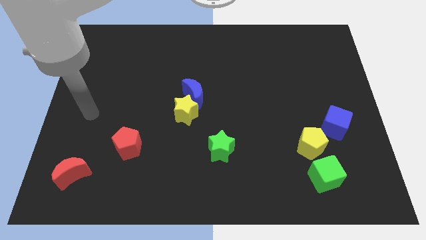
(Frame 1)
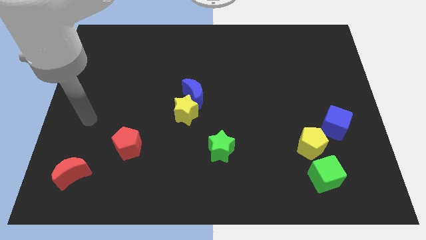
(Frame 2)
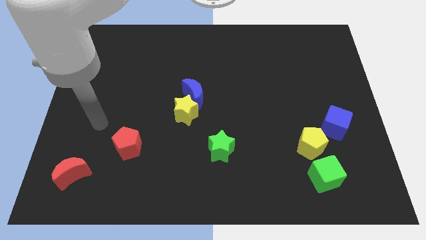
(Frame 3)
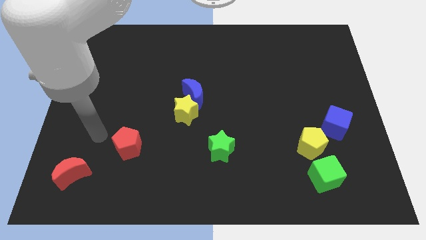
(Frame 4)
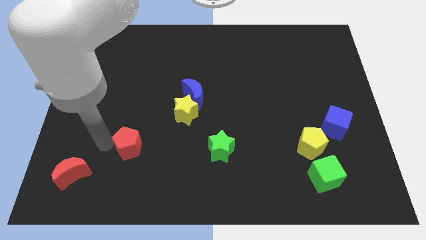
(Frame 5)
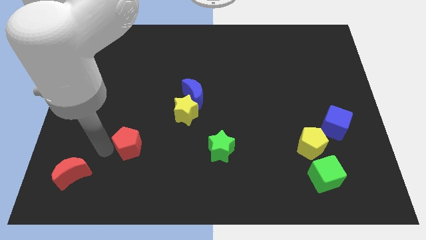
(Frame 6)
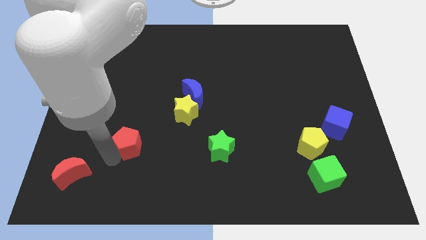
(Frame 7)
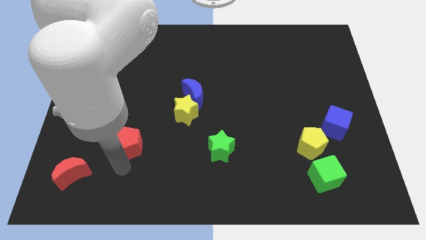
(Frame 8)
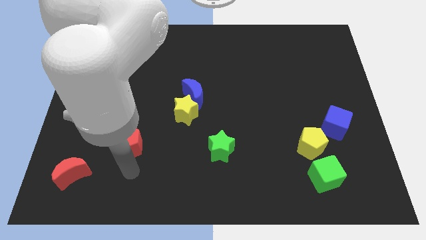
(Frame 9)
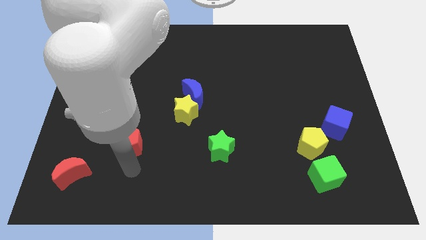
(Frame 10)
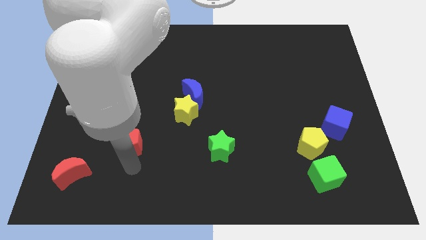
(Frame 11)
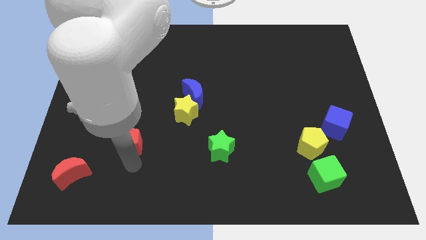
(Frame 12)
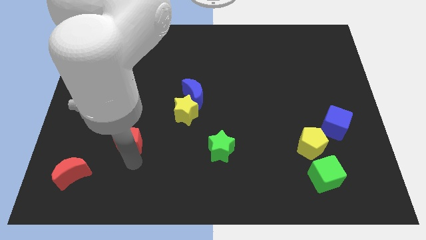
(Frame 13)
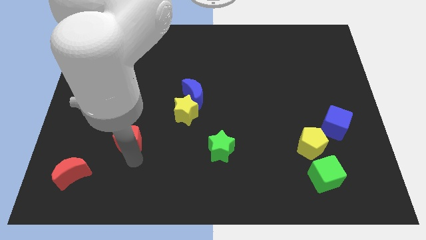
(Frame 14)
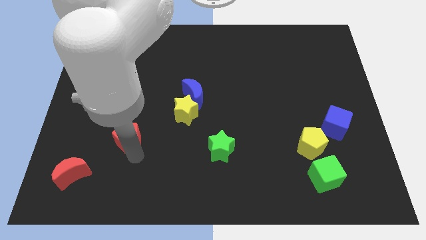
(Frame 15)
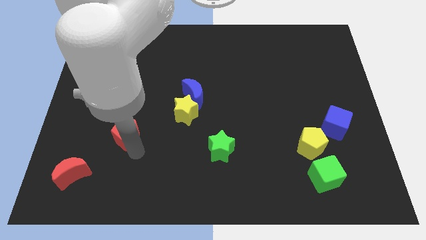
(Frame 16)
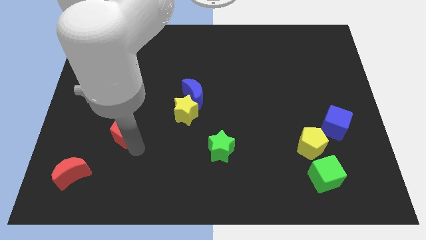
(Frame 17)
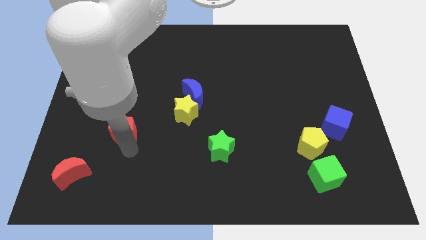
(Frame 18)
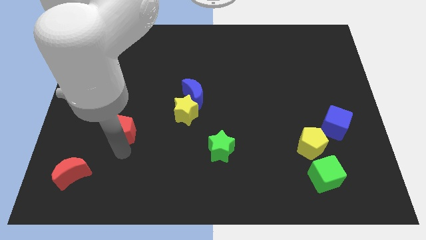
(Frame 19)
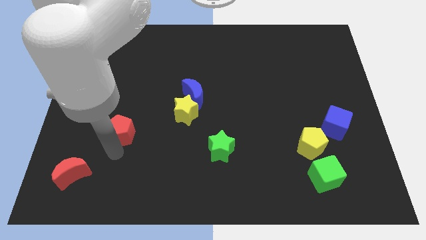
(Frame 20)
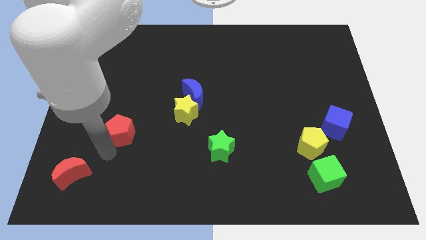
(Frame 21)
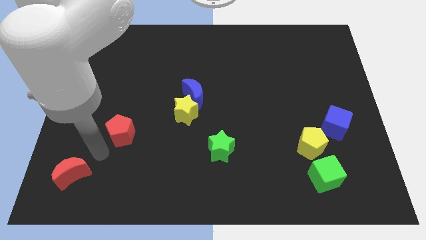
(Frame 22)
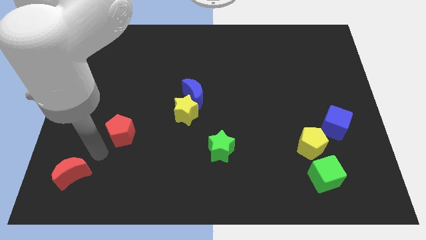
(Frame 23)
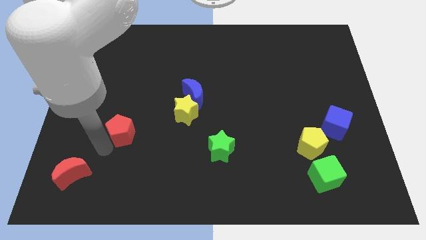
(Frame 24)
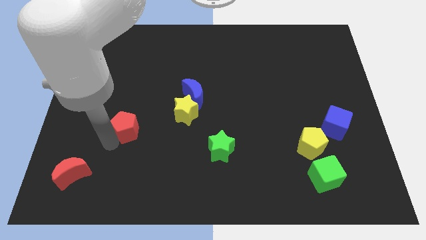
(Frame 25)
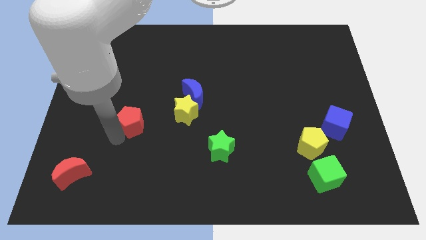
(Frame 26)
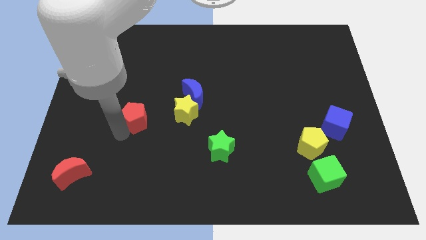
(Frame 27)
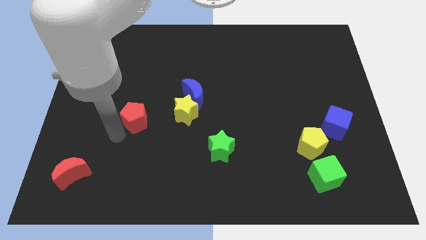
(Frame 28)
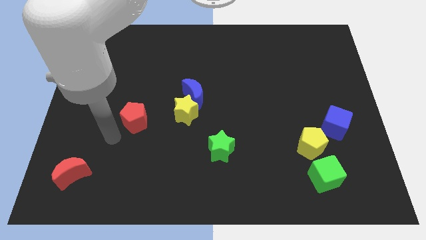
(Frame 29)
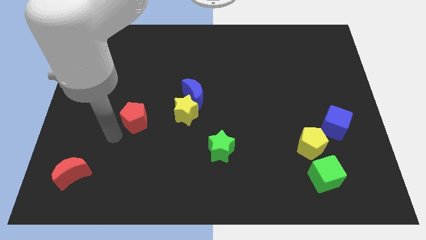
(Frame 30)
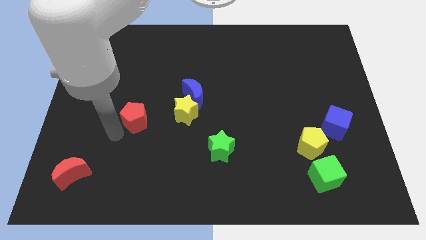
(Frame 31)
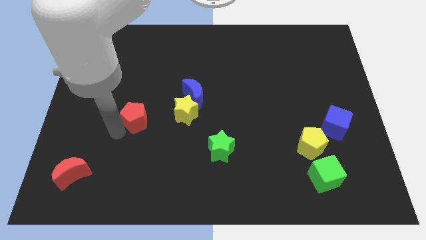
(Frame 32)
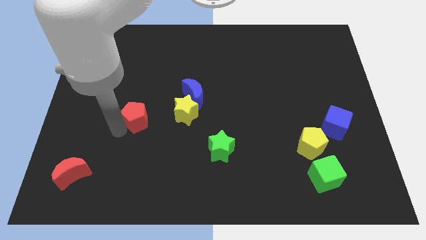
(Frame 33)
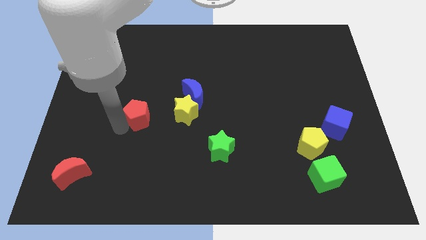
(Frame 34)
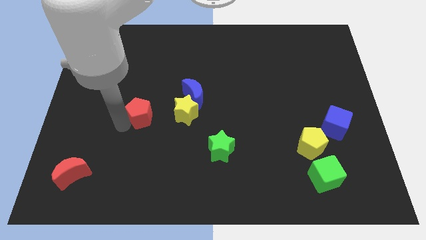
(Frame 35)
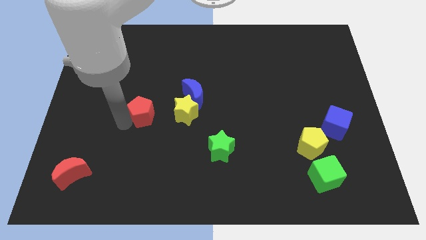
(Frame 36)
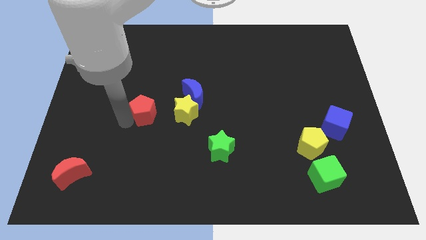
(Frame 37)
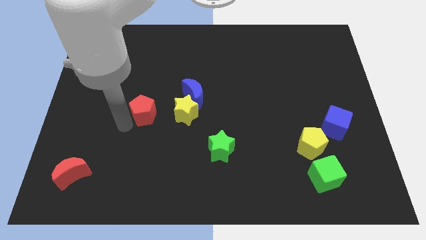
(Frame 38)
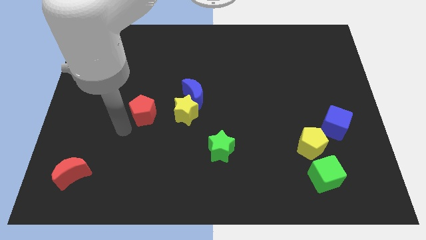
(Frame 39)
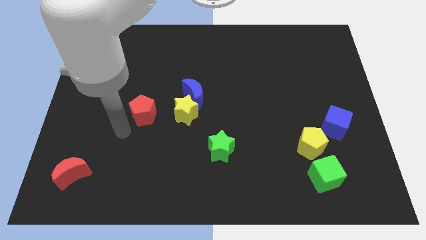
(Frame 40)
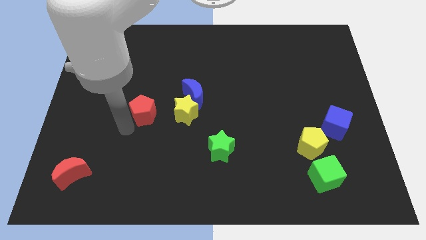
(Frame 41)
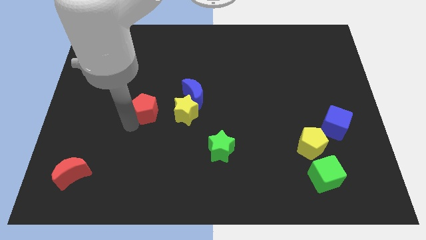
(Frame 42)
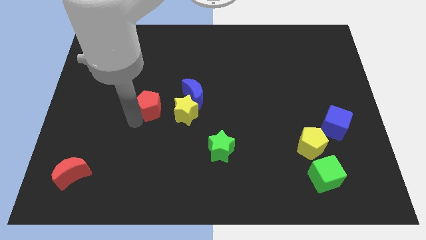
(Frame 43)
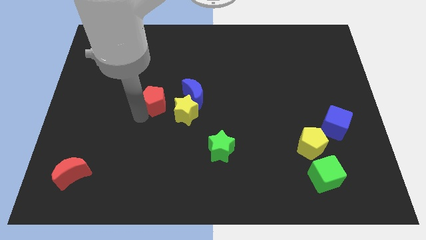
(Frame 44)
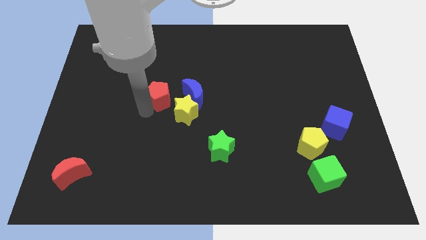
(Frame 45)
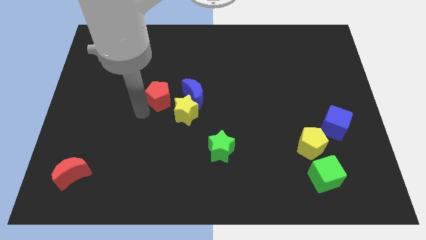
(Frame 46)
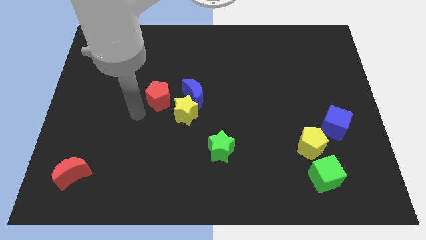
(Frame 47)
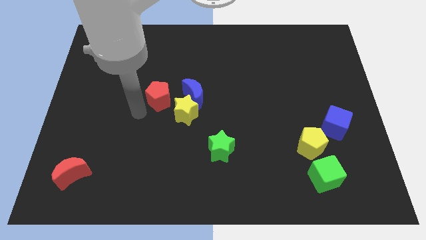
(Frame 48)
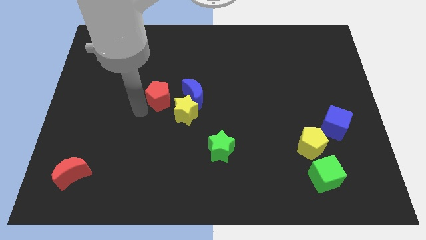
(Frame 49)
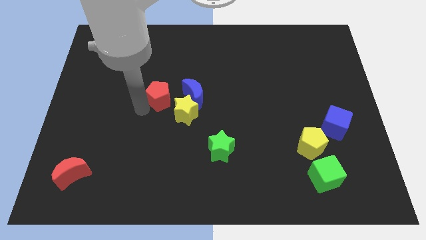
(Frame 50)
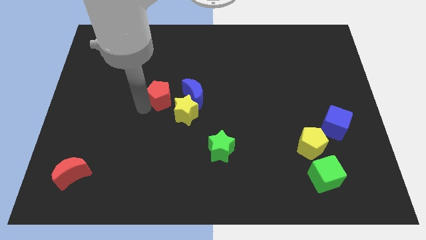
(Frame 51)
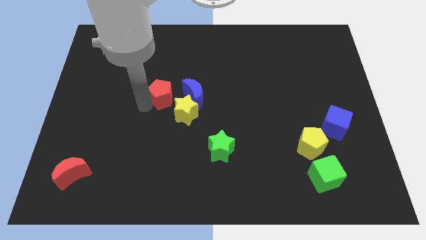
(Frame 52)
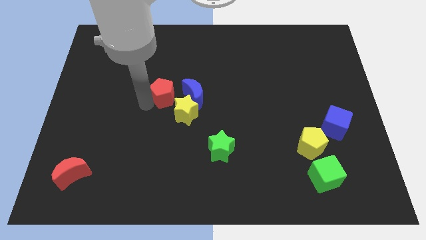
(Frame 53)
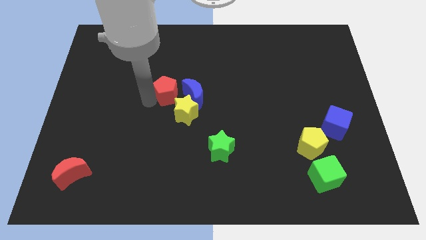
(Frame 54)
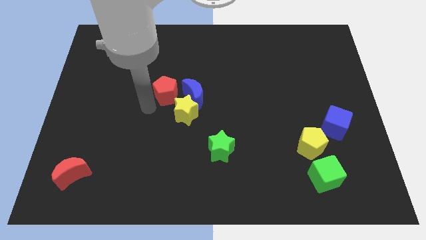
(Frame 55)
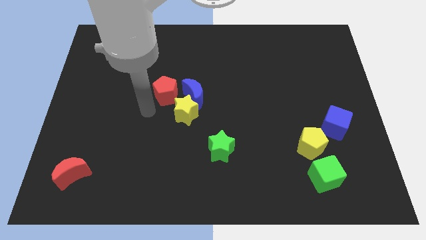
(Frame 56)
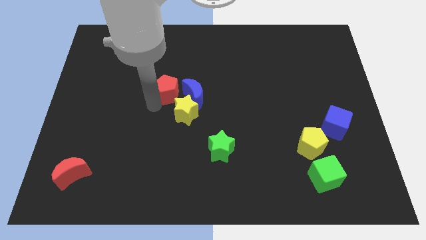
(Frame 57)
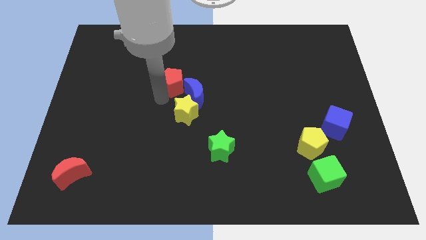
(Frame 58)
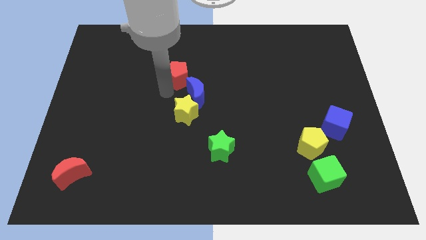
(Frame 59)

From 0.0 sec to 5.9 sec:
move the red pentagon above the blue moon
